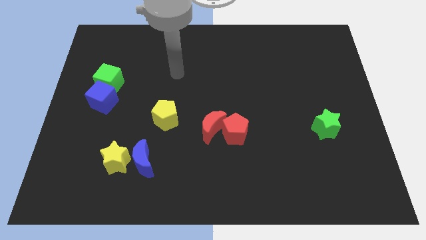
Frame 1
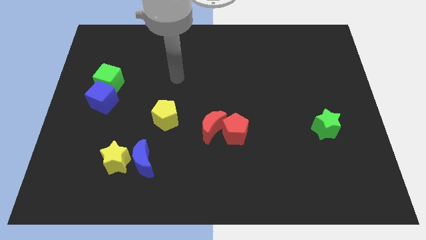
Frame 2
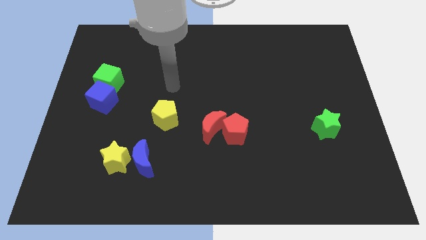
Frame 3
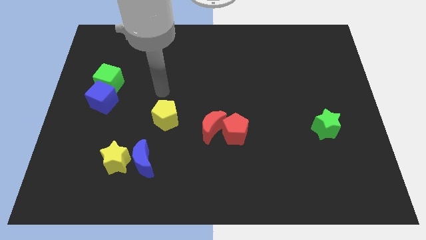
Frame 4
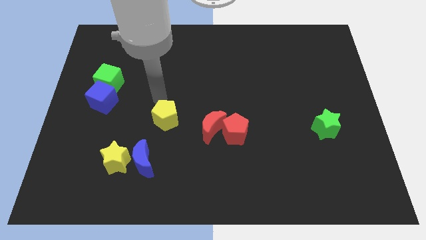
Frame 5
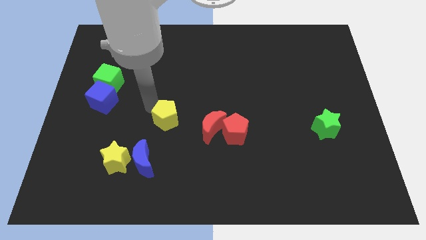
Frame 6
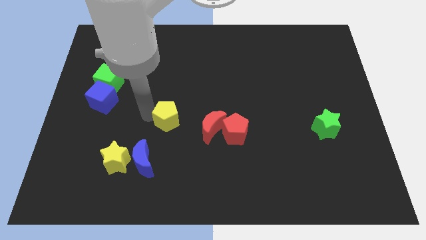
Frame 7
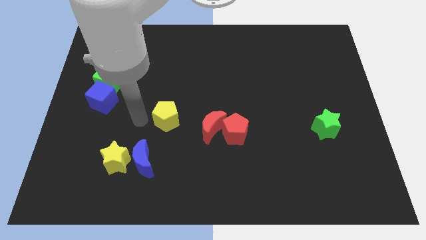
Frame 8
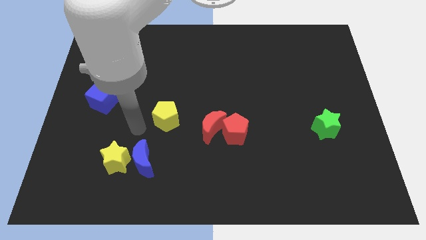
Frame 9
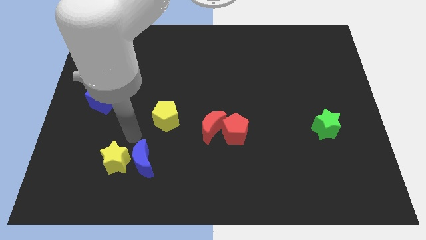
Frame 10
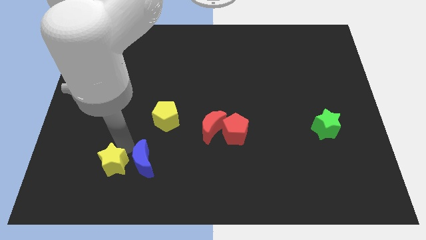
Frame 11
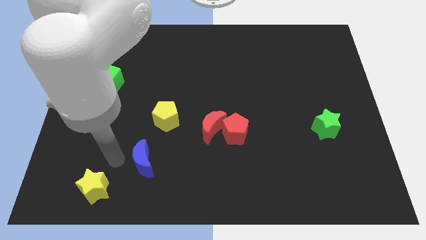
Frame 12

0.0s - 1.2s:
move the blue moon away from the yellow star

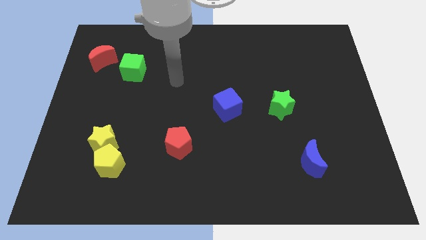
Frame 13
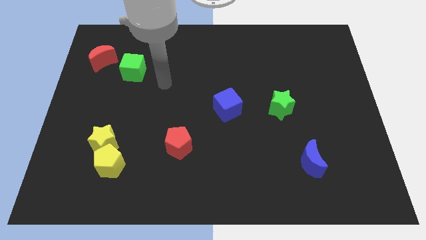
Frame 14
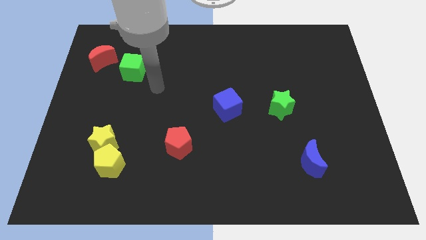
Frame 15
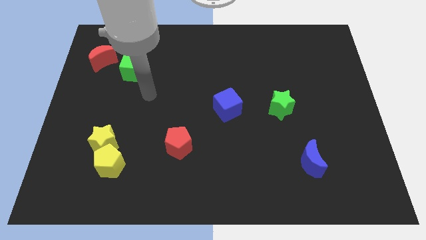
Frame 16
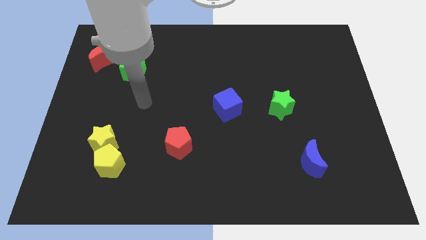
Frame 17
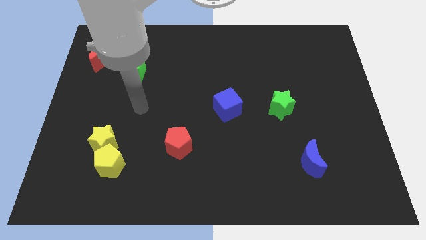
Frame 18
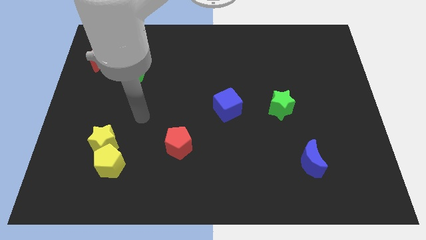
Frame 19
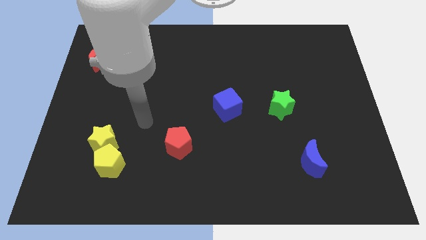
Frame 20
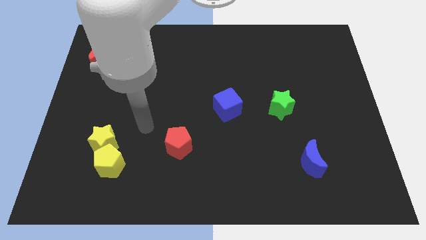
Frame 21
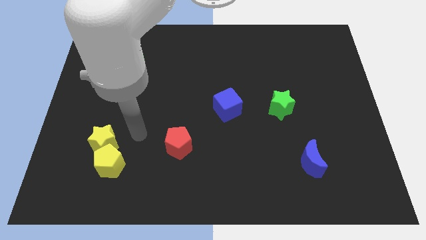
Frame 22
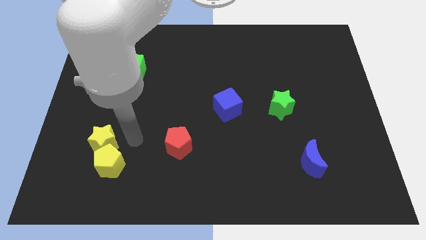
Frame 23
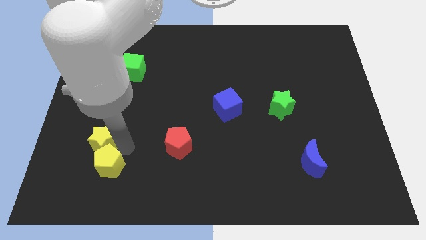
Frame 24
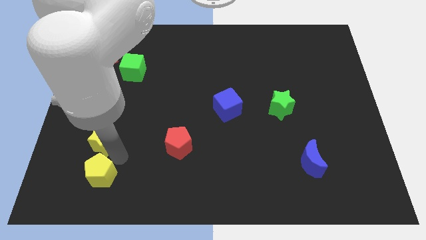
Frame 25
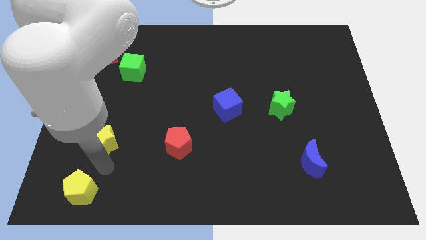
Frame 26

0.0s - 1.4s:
pull the yellow star apart from the yellow pentagon

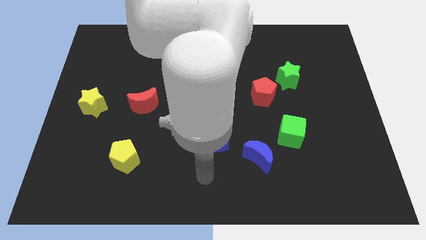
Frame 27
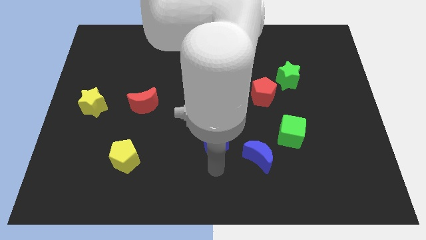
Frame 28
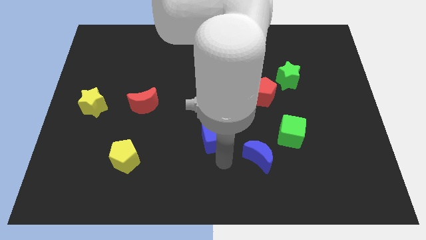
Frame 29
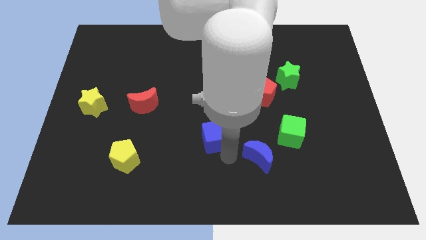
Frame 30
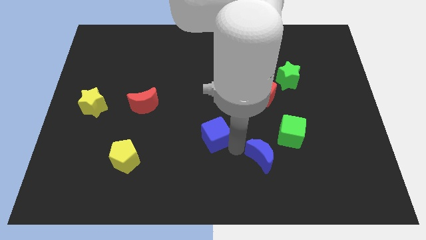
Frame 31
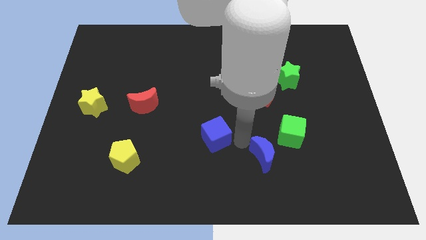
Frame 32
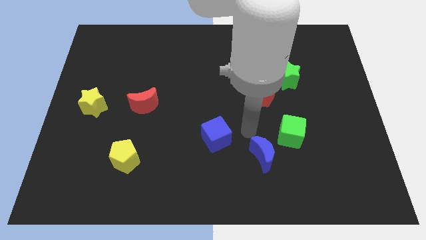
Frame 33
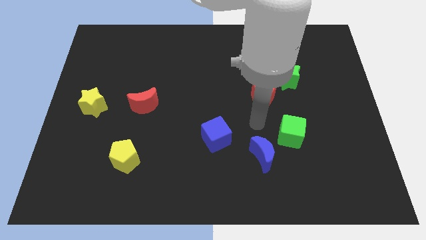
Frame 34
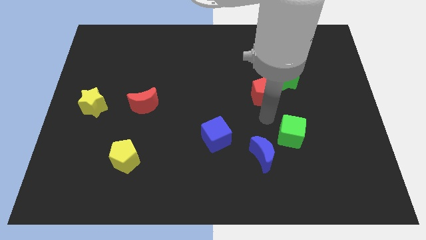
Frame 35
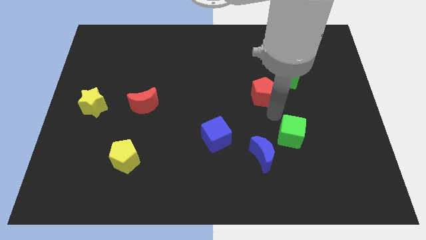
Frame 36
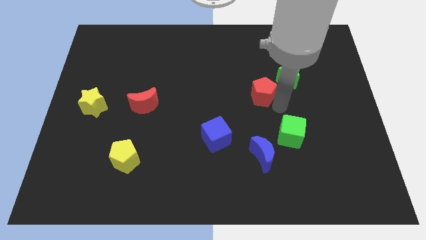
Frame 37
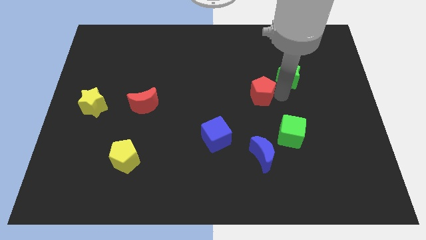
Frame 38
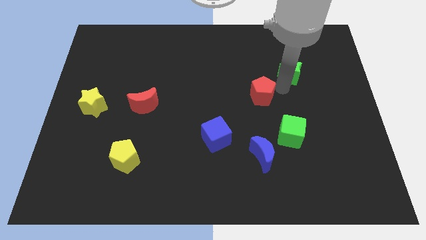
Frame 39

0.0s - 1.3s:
separate the red pentagon from the green star

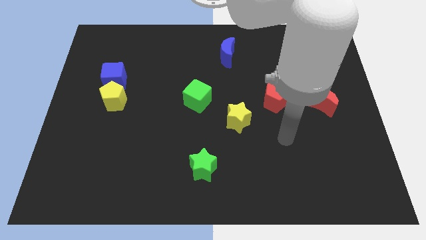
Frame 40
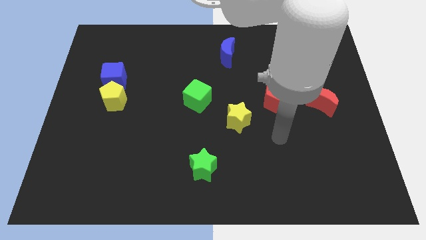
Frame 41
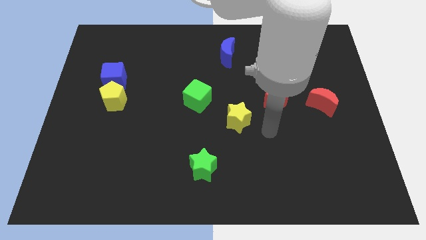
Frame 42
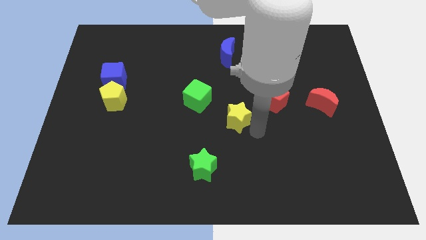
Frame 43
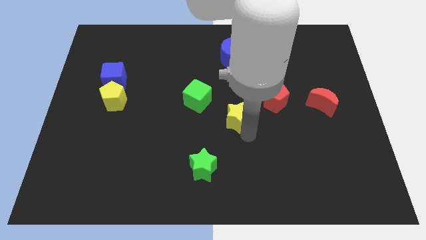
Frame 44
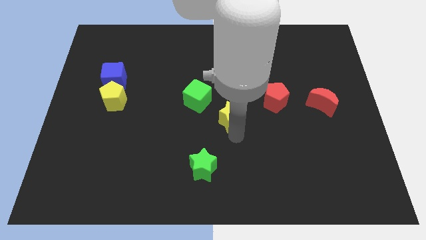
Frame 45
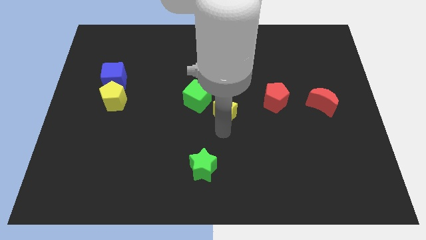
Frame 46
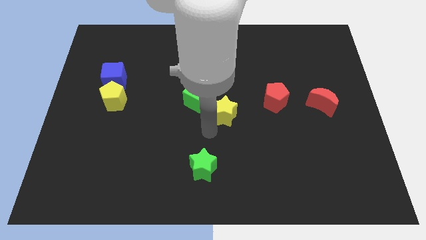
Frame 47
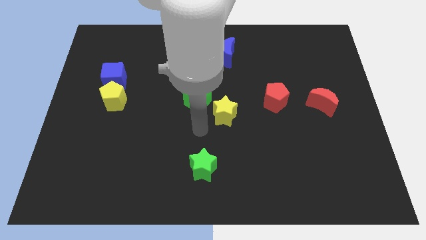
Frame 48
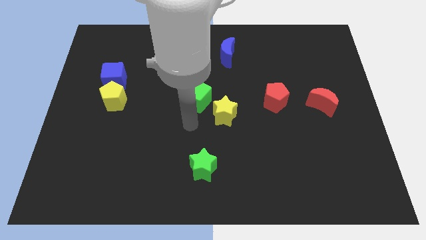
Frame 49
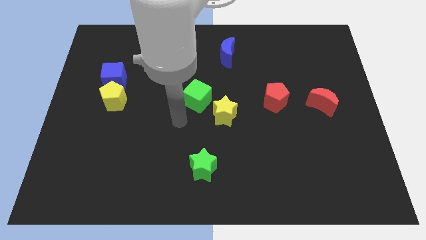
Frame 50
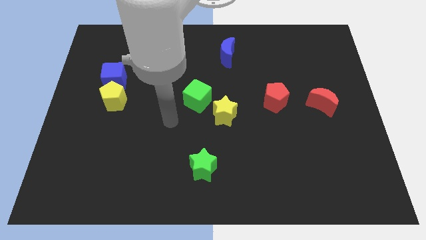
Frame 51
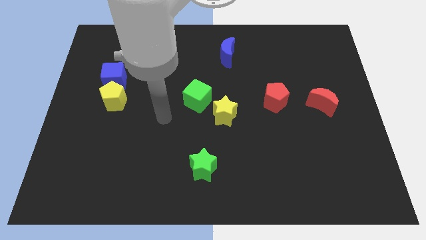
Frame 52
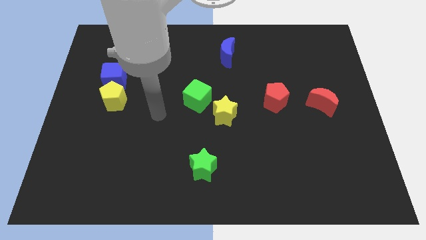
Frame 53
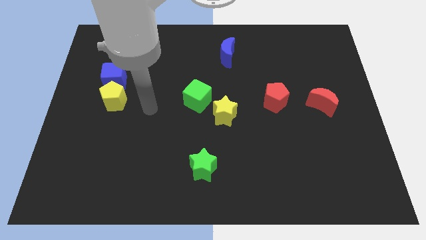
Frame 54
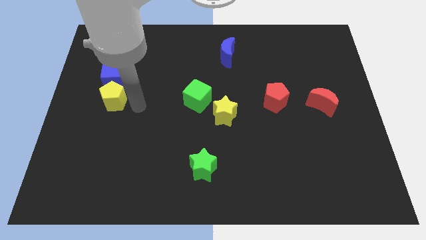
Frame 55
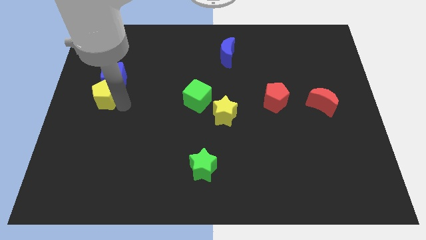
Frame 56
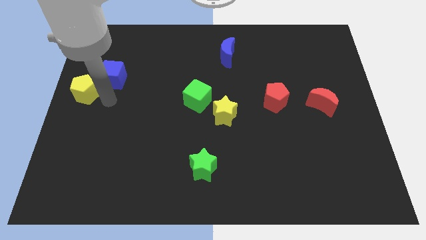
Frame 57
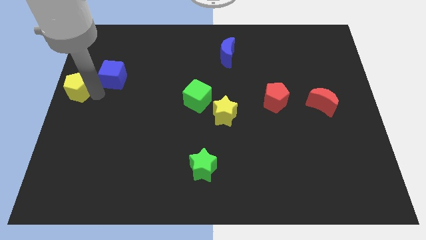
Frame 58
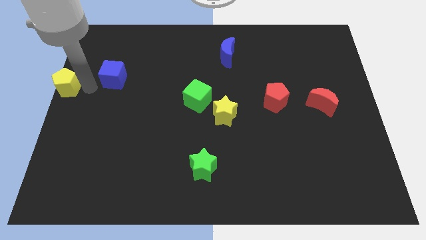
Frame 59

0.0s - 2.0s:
pull the blue cube apart from the yellow pentagon

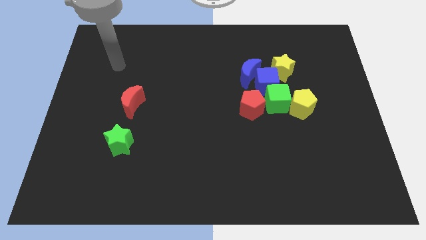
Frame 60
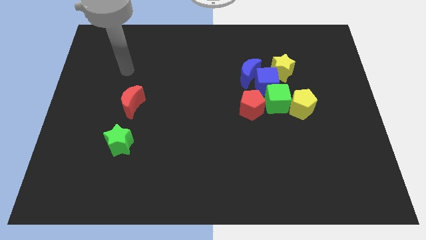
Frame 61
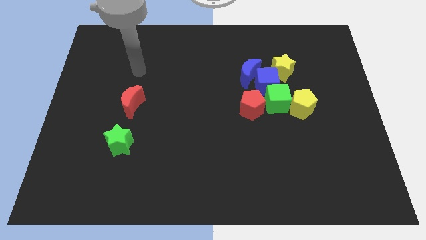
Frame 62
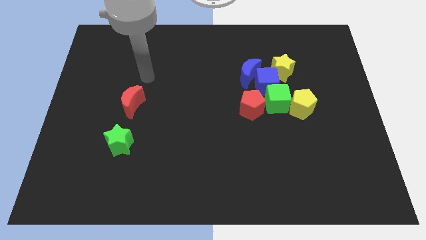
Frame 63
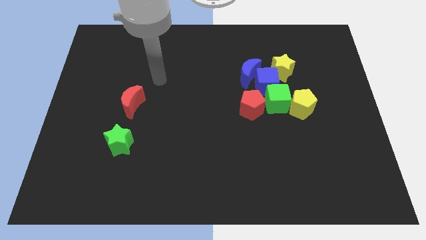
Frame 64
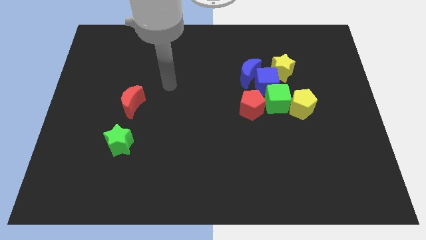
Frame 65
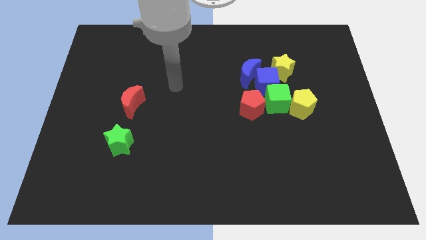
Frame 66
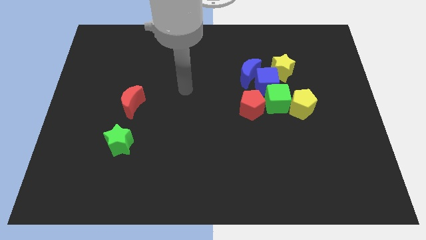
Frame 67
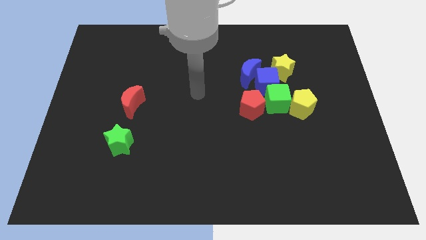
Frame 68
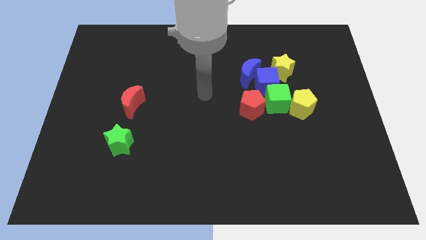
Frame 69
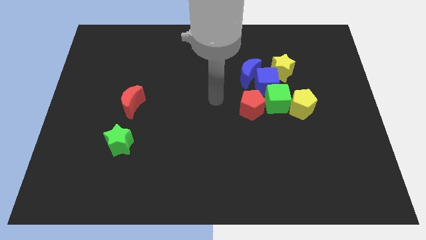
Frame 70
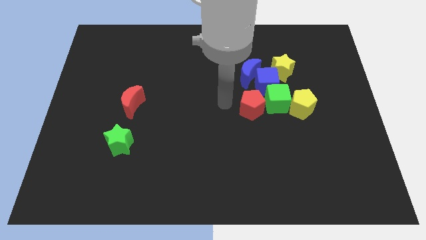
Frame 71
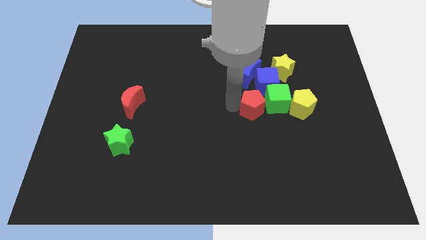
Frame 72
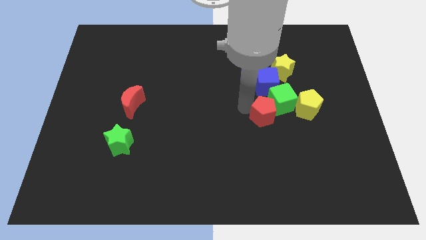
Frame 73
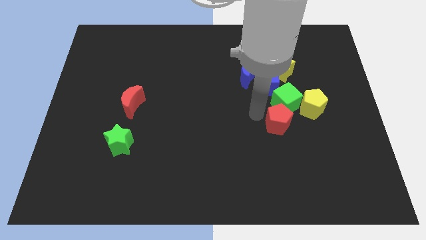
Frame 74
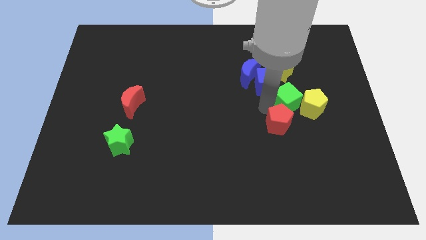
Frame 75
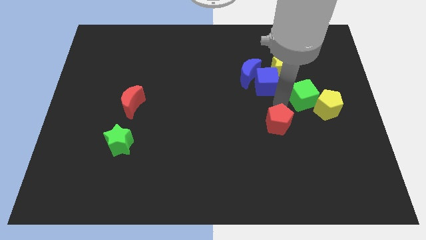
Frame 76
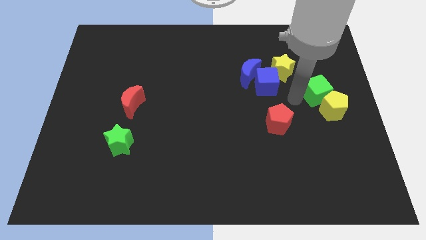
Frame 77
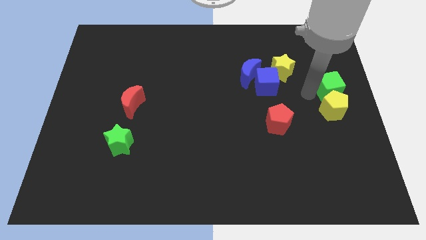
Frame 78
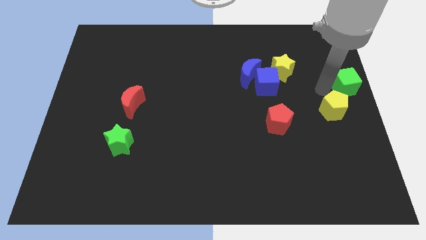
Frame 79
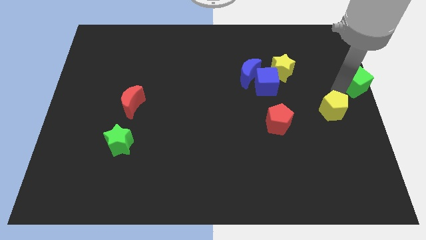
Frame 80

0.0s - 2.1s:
move the yellow pentagon away from the green cube

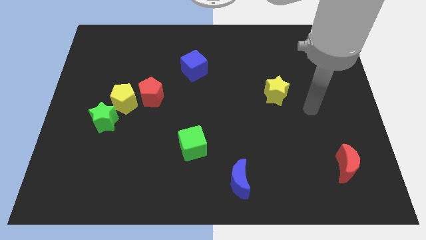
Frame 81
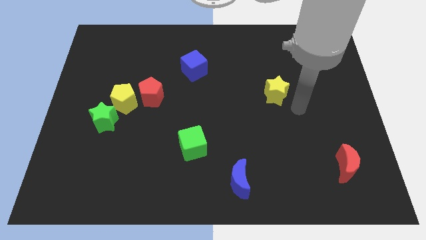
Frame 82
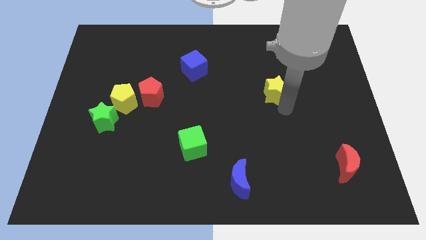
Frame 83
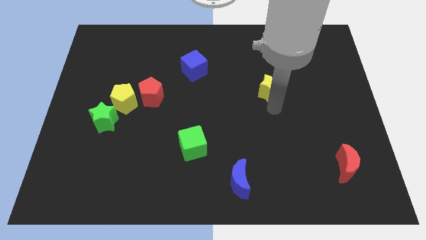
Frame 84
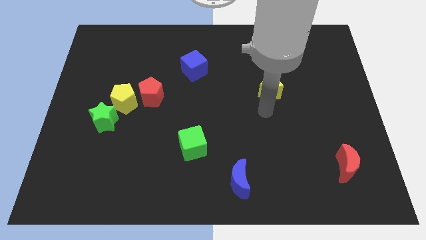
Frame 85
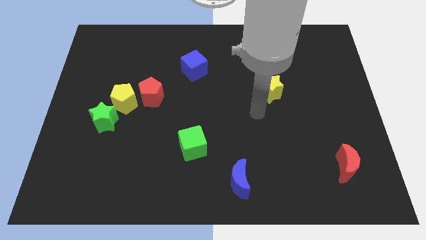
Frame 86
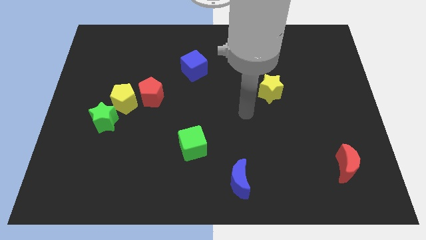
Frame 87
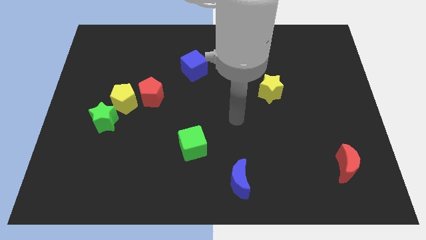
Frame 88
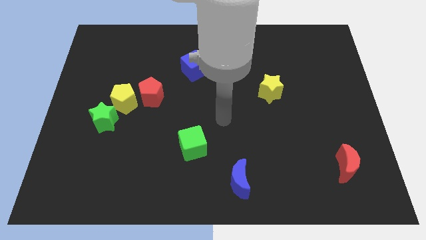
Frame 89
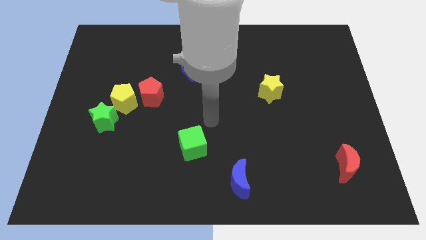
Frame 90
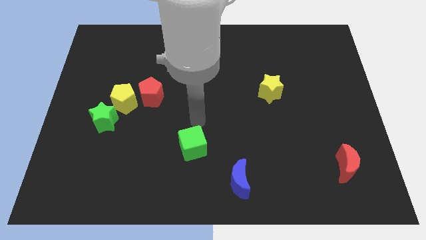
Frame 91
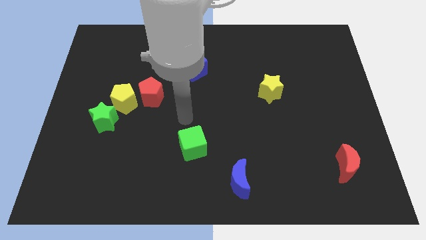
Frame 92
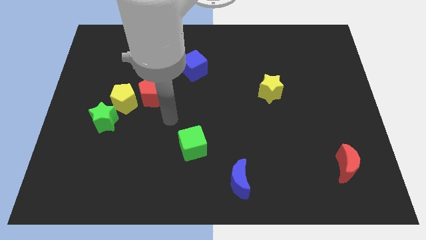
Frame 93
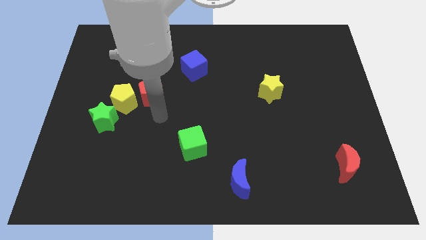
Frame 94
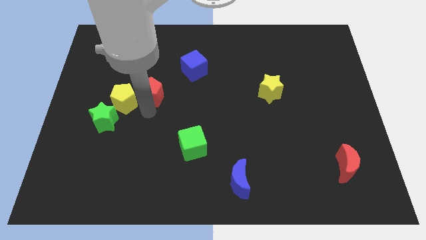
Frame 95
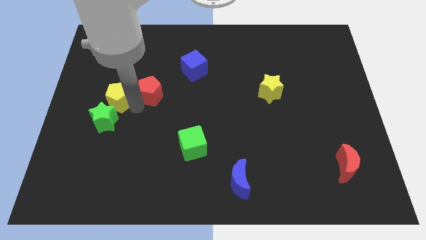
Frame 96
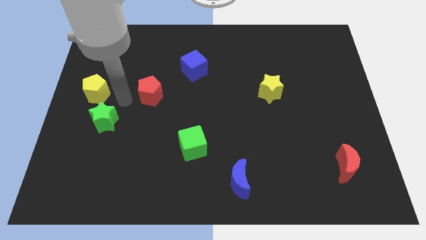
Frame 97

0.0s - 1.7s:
pull the red pentagon apart from the yellow pentagon
